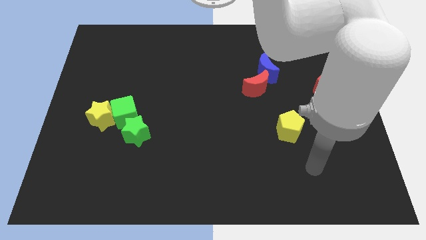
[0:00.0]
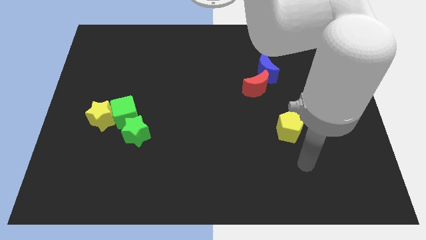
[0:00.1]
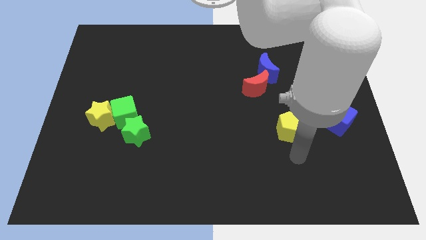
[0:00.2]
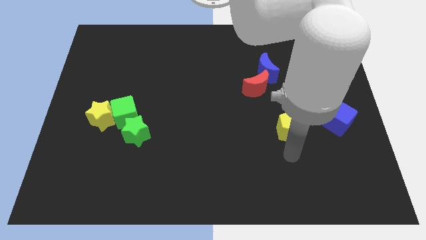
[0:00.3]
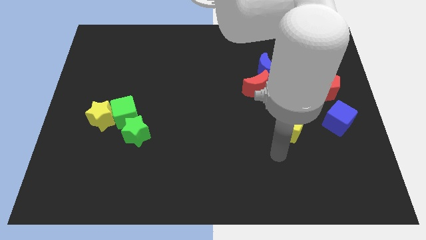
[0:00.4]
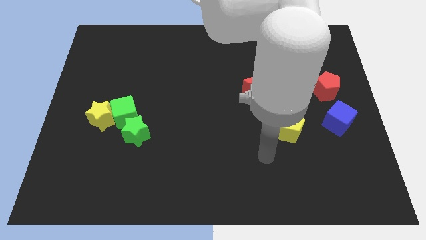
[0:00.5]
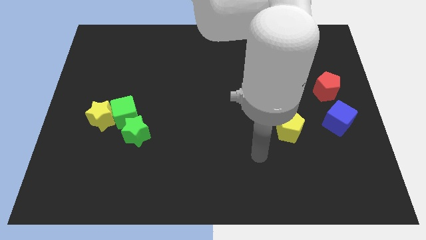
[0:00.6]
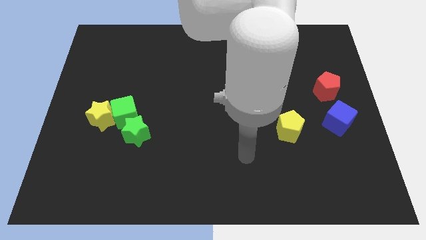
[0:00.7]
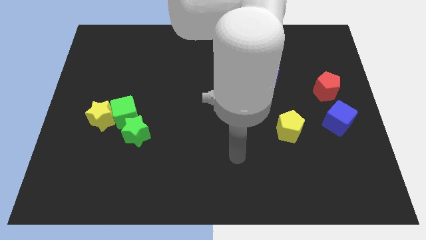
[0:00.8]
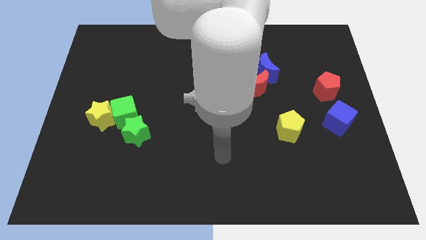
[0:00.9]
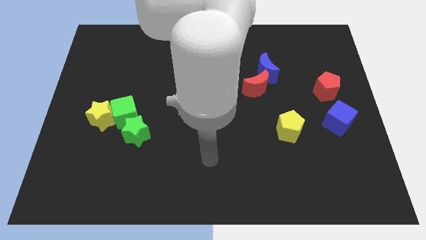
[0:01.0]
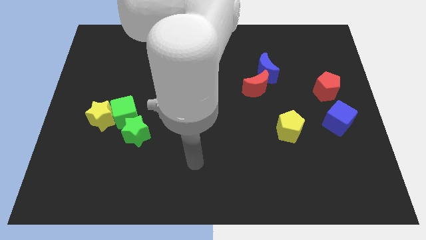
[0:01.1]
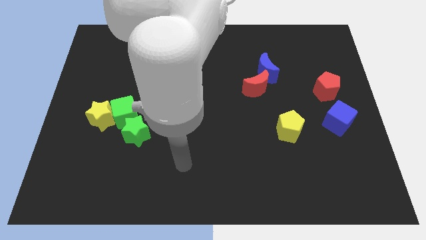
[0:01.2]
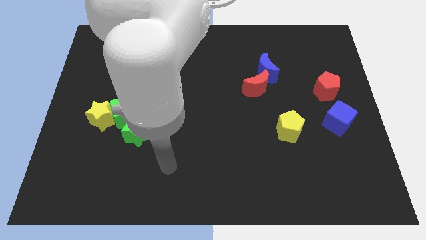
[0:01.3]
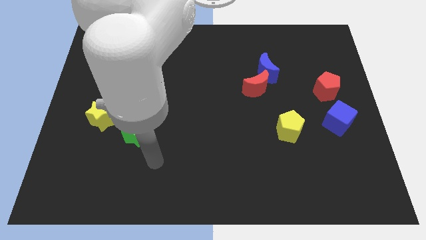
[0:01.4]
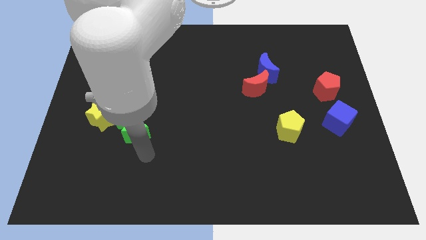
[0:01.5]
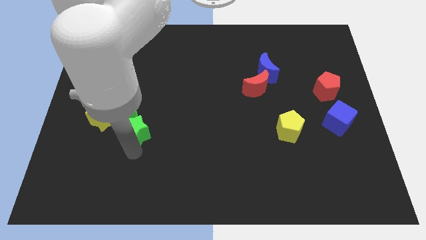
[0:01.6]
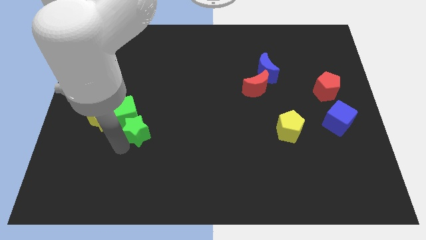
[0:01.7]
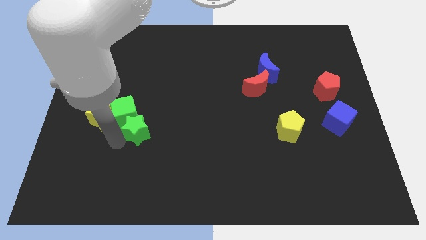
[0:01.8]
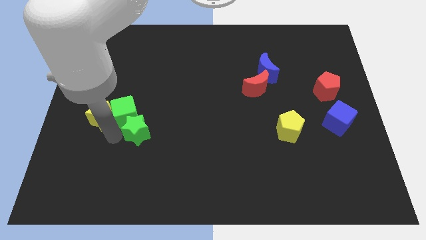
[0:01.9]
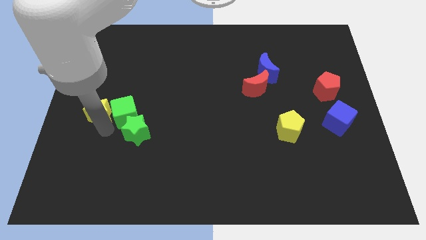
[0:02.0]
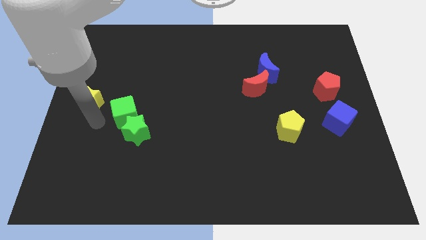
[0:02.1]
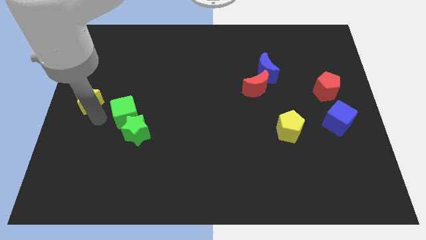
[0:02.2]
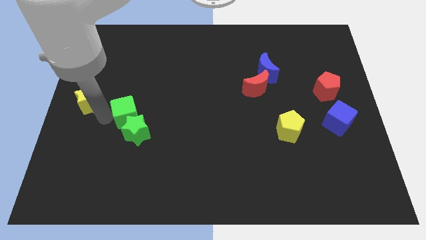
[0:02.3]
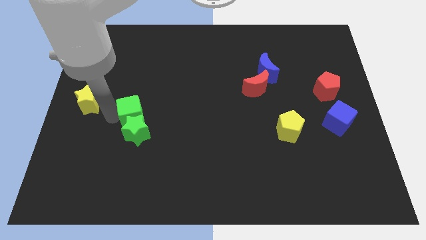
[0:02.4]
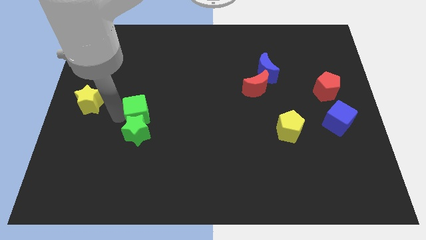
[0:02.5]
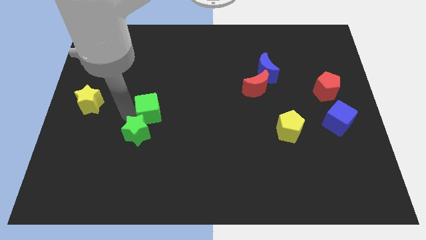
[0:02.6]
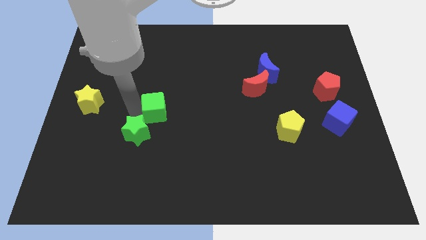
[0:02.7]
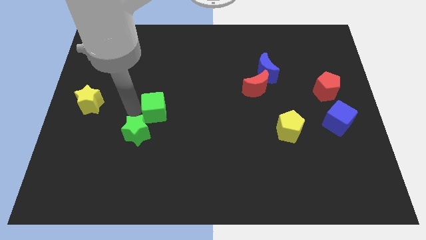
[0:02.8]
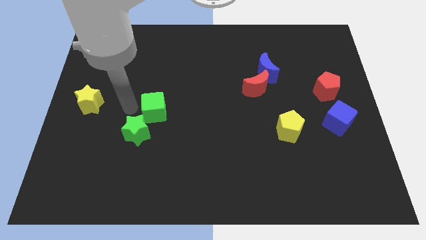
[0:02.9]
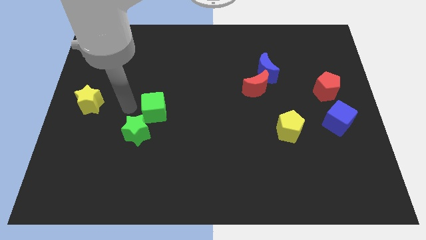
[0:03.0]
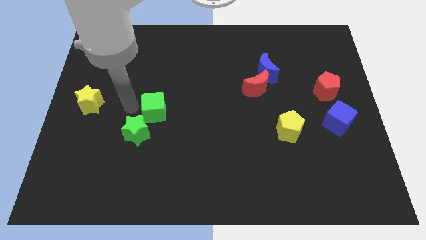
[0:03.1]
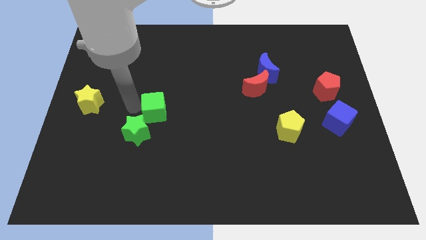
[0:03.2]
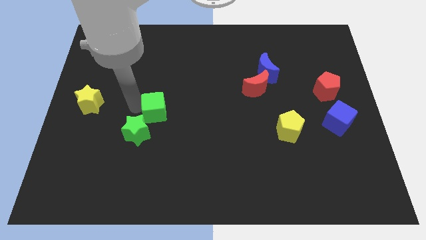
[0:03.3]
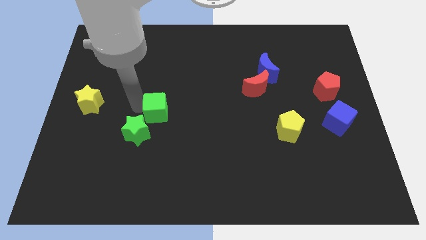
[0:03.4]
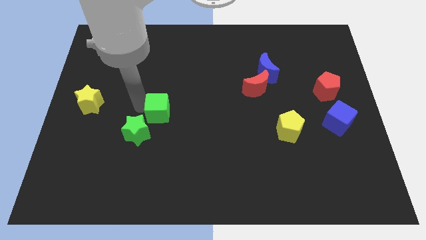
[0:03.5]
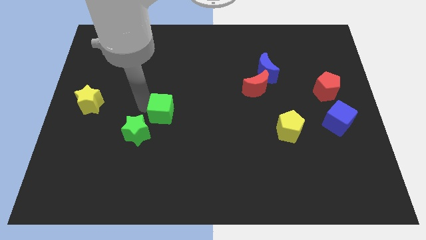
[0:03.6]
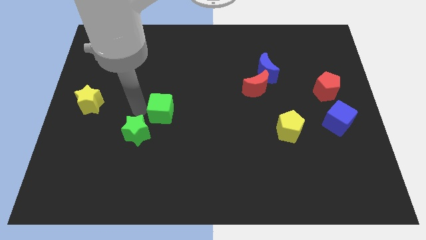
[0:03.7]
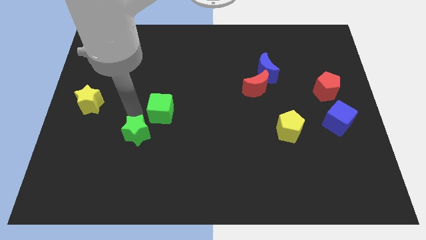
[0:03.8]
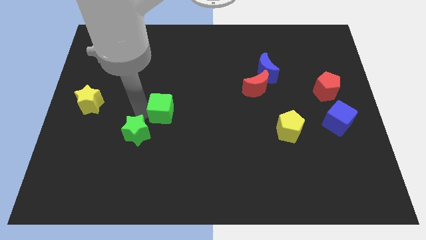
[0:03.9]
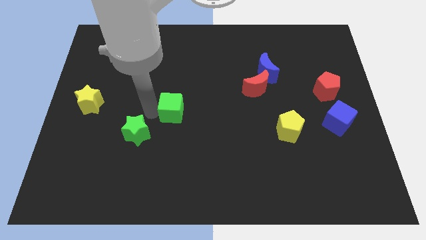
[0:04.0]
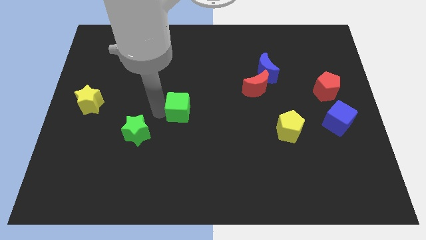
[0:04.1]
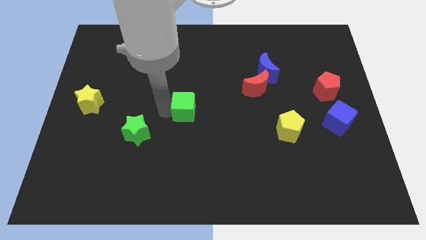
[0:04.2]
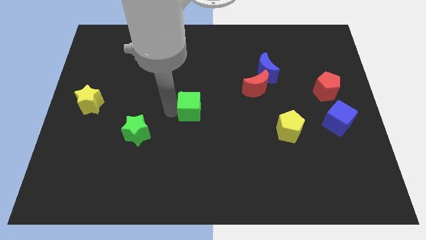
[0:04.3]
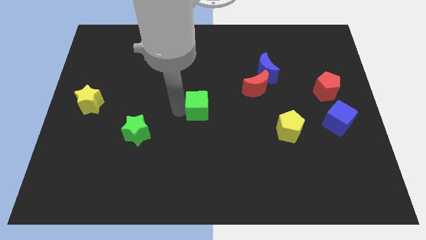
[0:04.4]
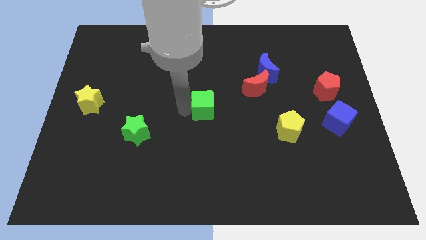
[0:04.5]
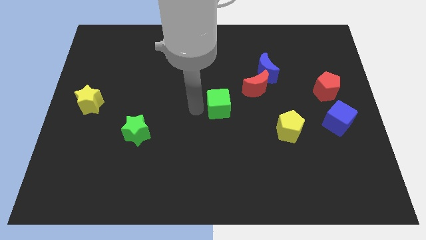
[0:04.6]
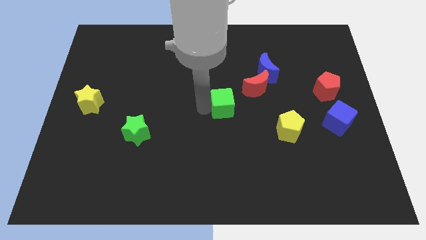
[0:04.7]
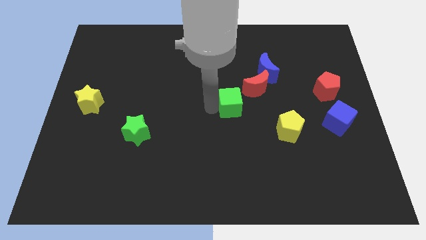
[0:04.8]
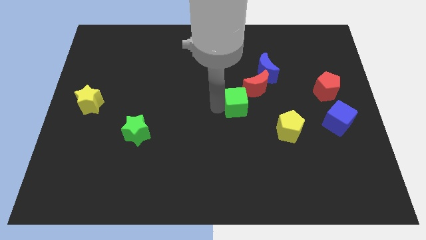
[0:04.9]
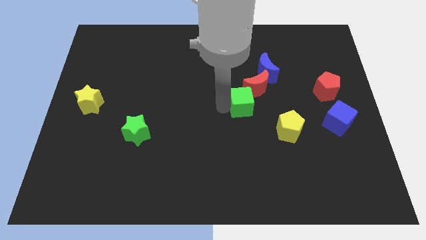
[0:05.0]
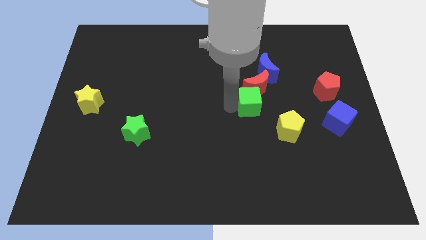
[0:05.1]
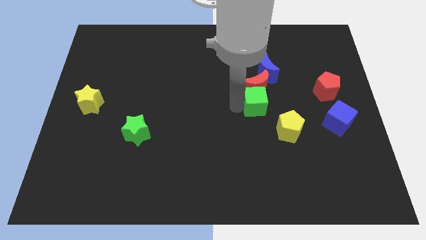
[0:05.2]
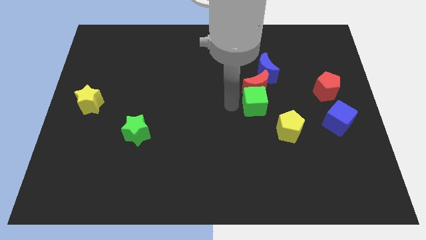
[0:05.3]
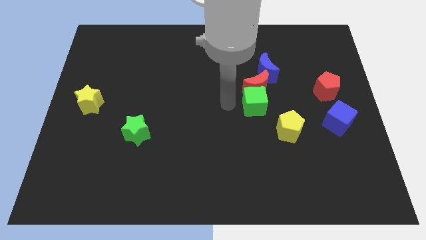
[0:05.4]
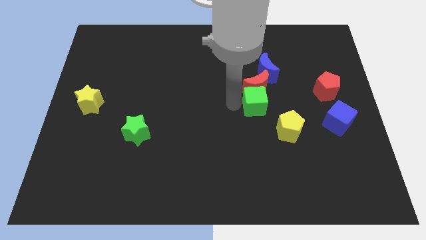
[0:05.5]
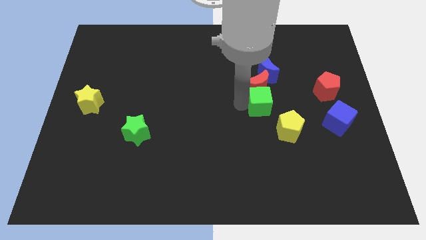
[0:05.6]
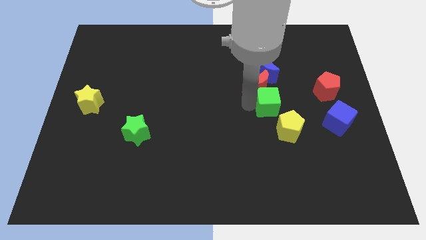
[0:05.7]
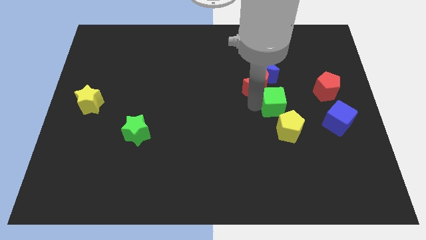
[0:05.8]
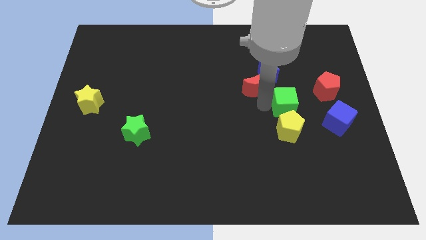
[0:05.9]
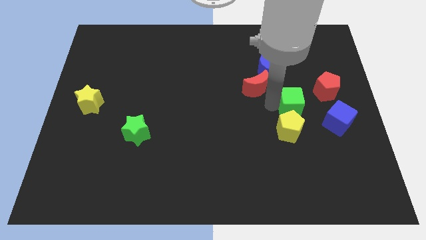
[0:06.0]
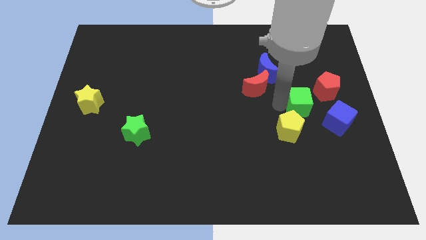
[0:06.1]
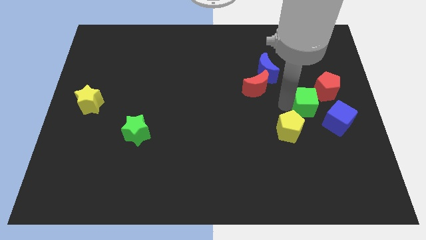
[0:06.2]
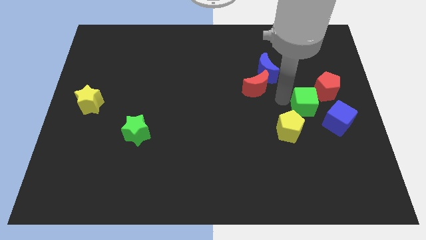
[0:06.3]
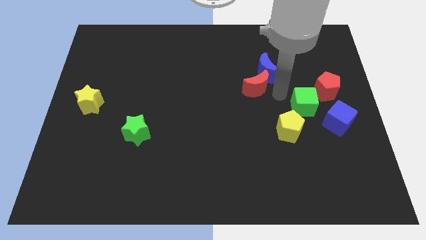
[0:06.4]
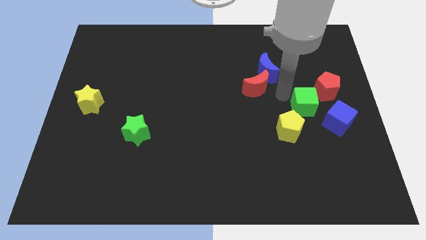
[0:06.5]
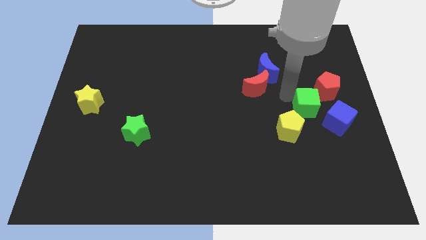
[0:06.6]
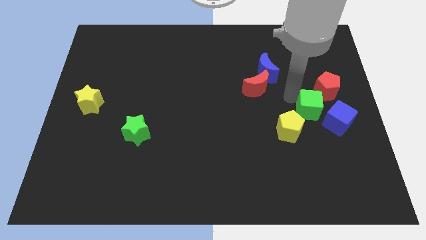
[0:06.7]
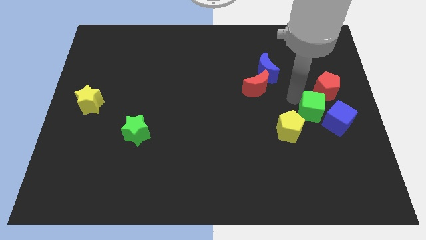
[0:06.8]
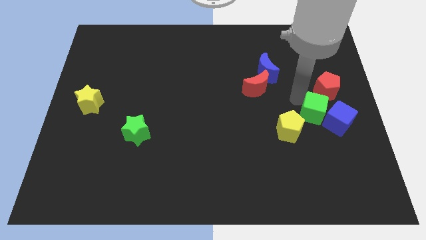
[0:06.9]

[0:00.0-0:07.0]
put the green cube to the blue cube
